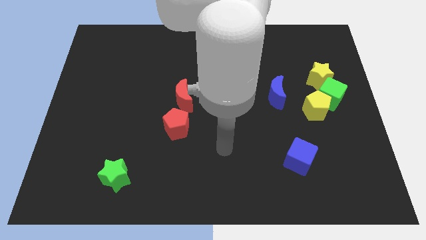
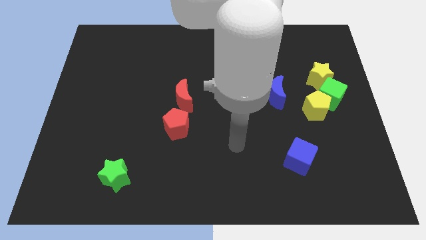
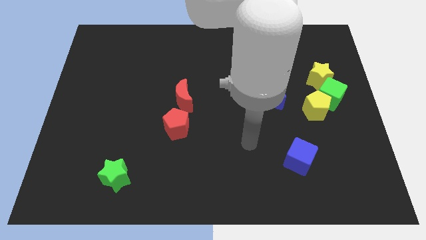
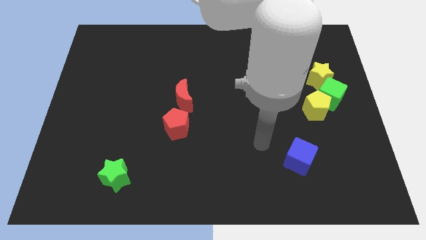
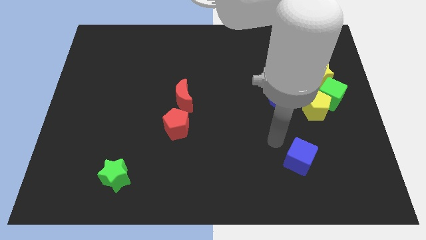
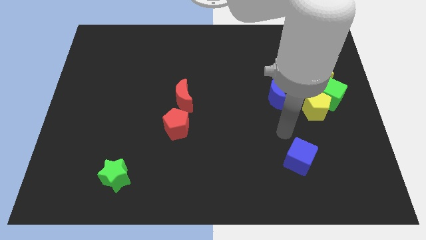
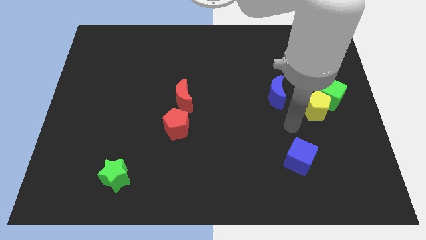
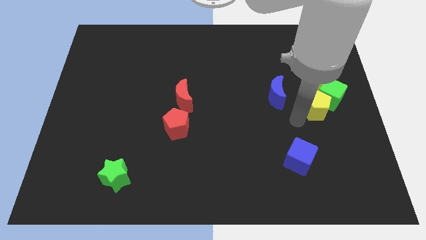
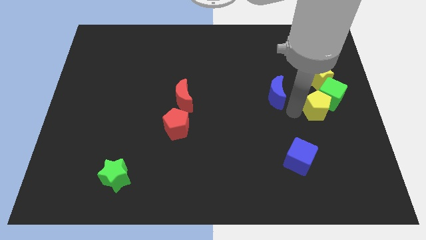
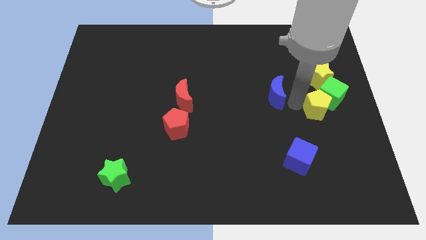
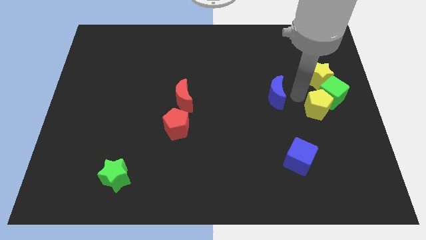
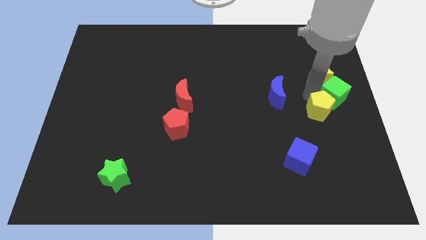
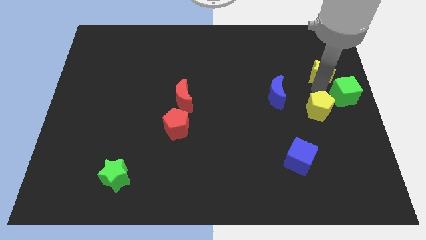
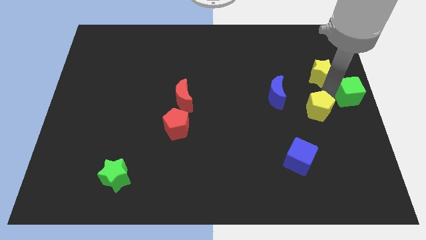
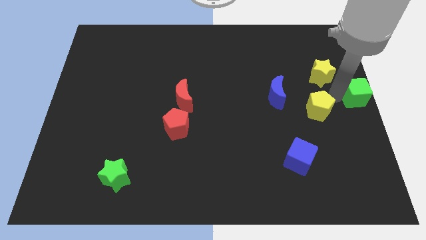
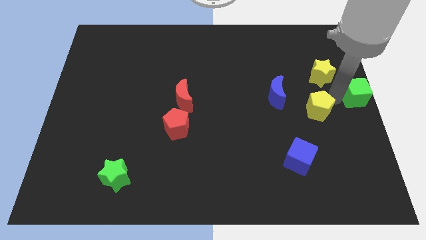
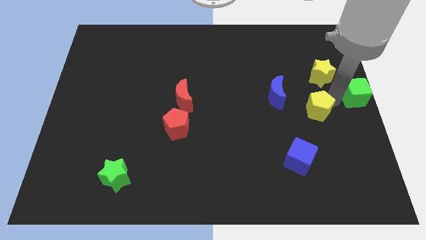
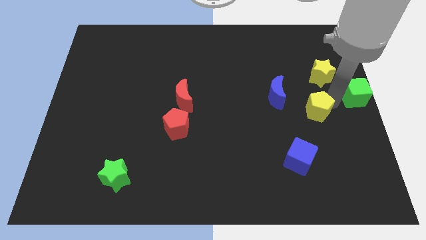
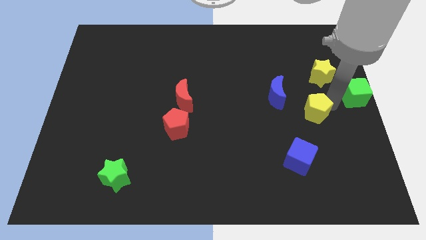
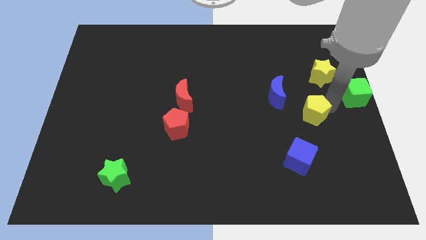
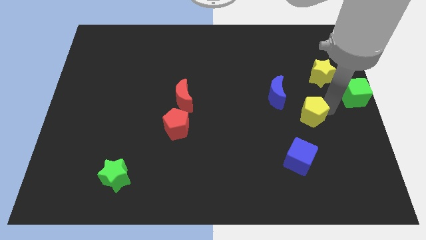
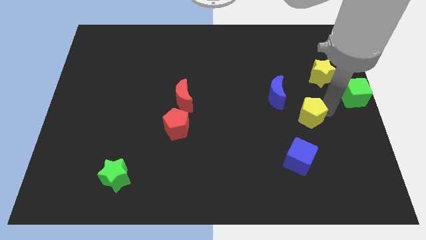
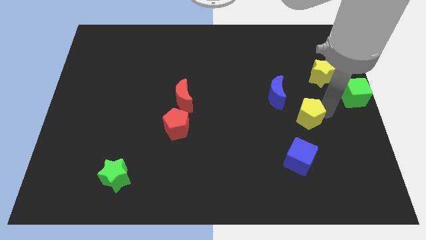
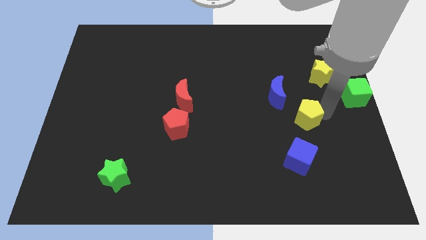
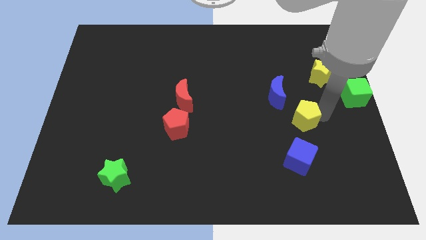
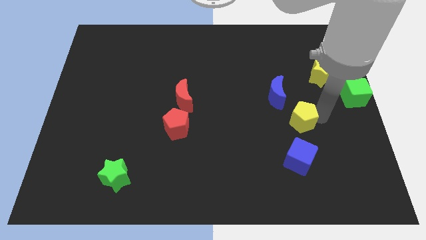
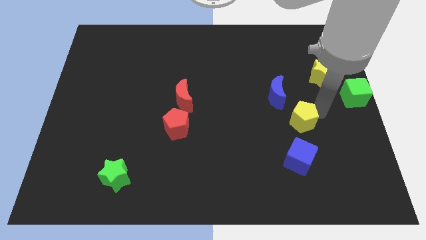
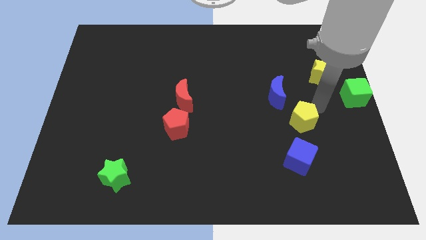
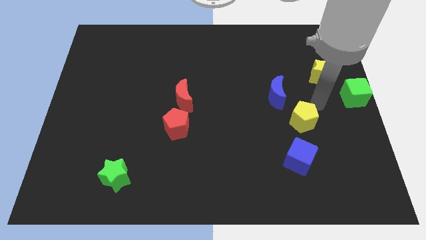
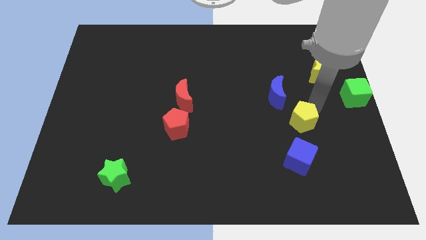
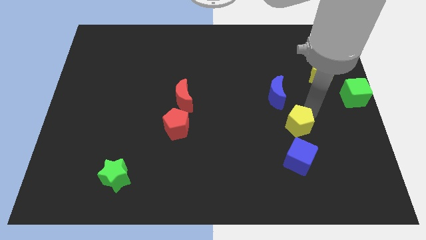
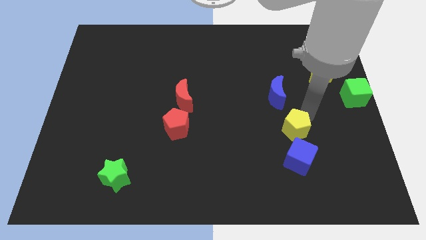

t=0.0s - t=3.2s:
slightly move the yellow pentagon down and then to the left

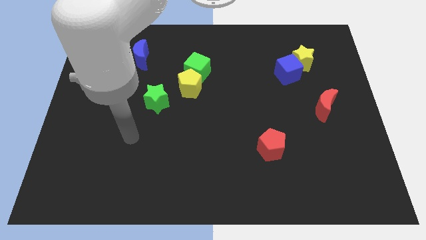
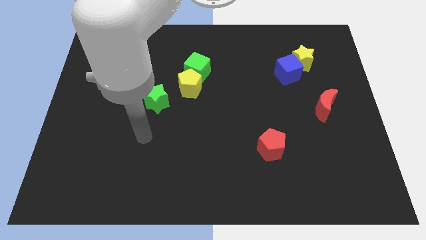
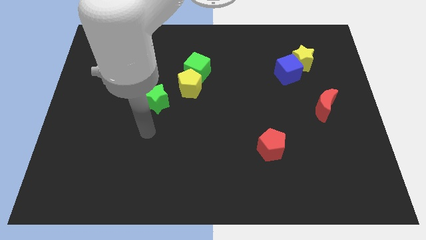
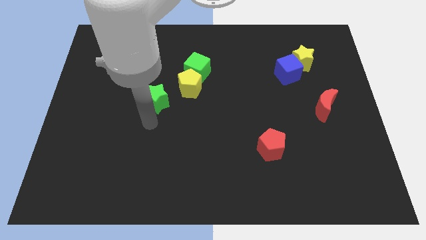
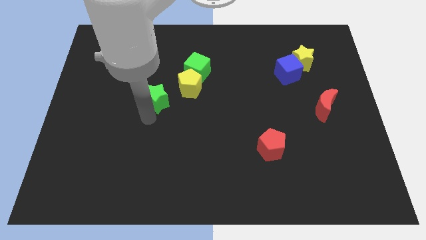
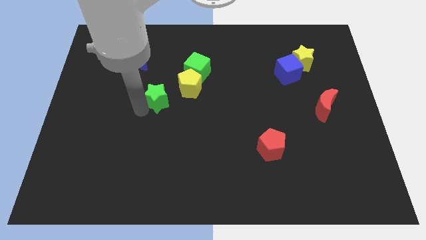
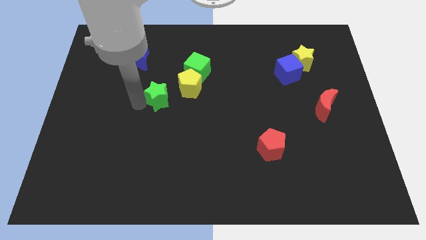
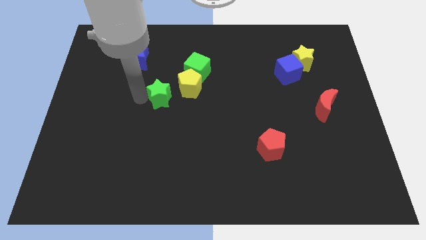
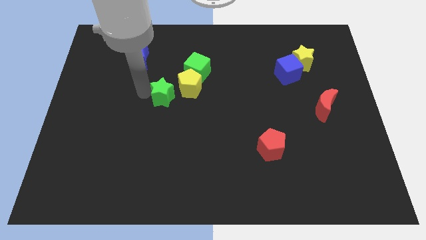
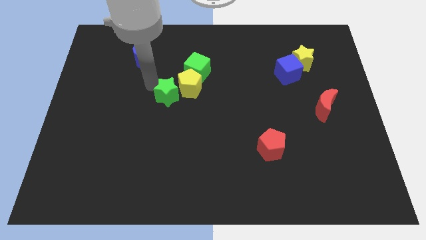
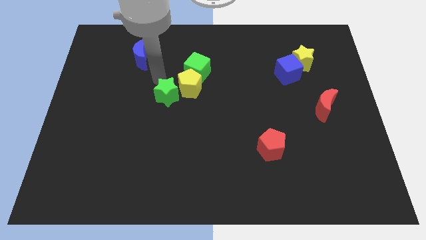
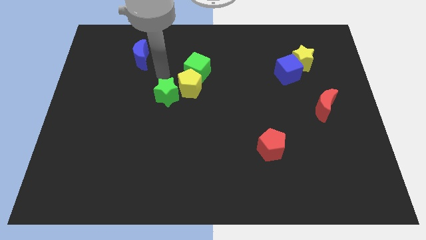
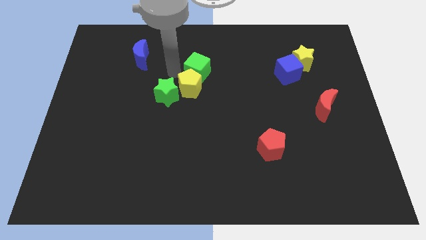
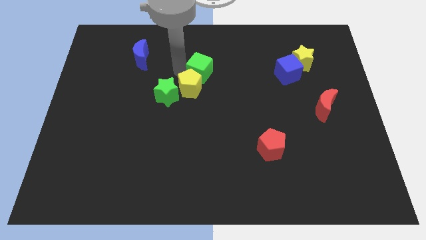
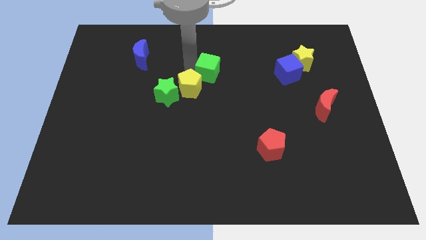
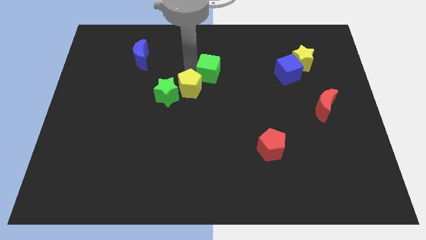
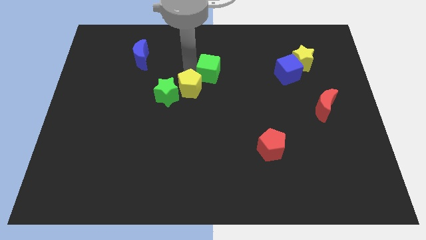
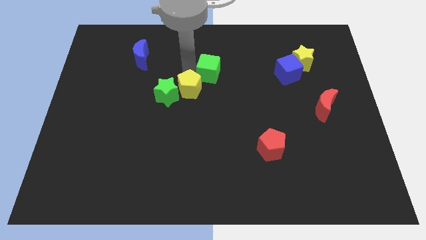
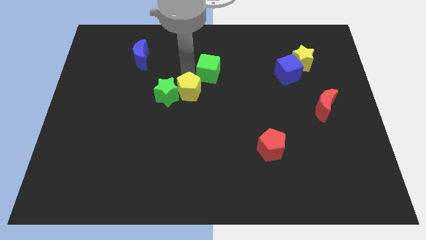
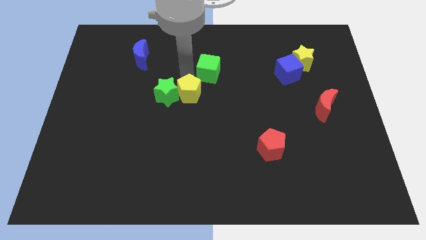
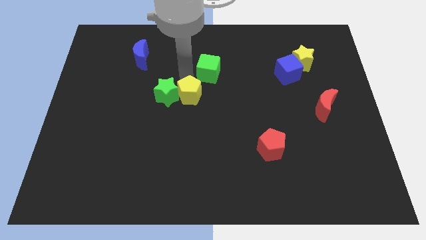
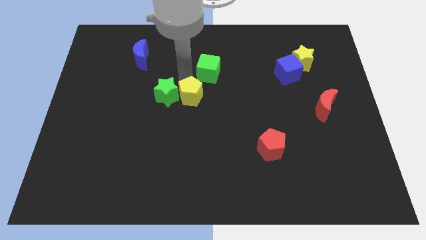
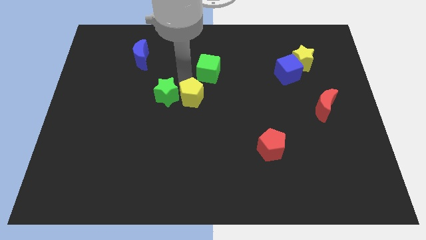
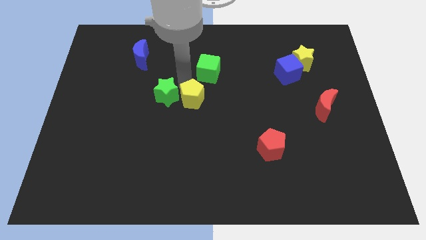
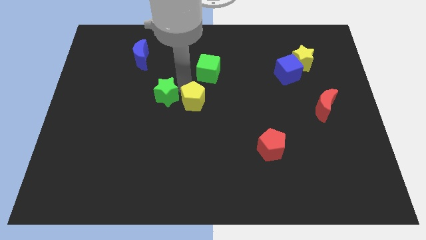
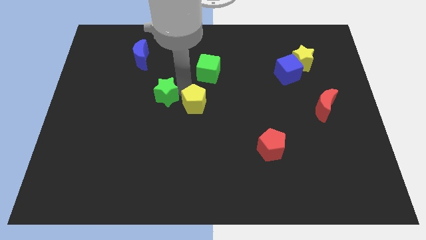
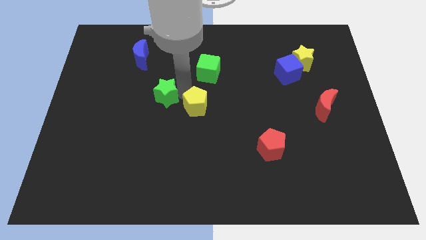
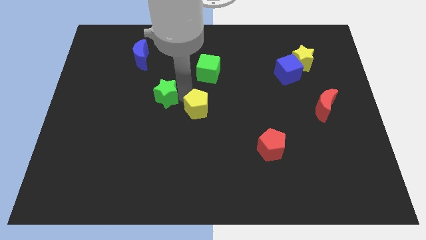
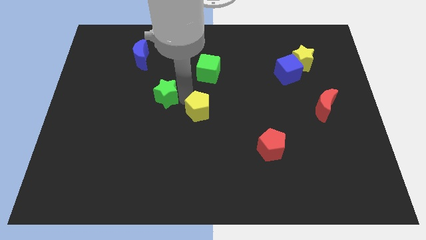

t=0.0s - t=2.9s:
slightly slide the yellow pentagon down

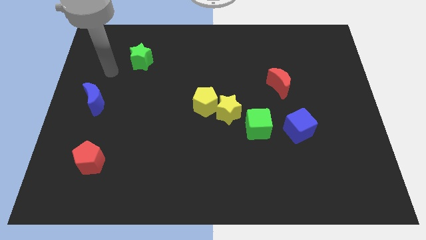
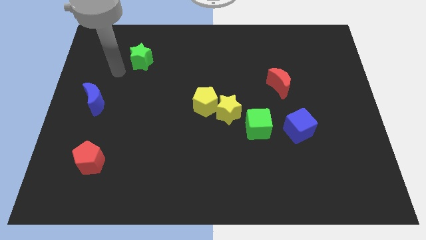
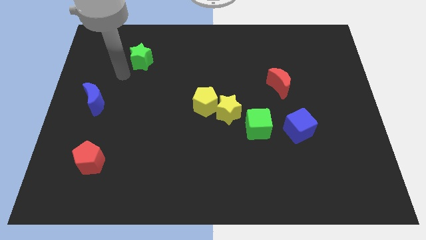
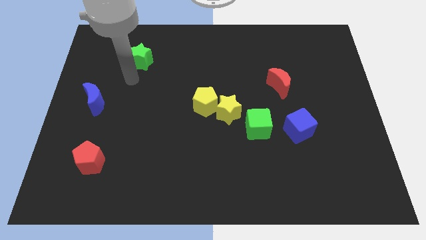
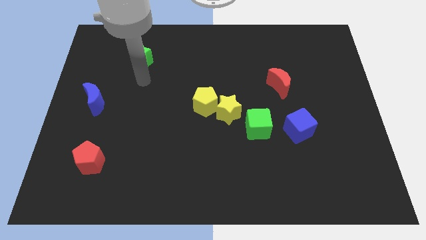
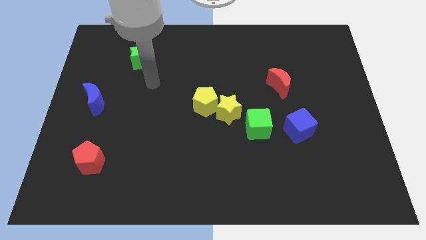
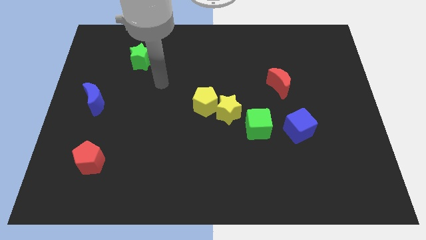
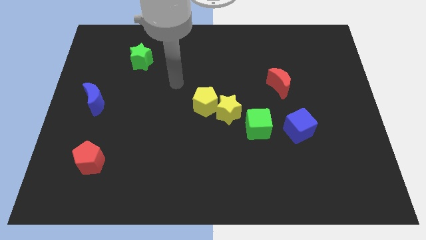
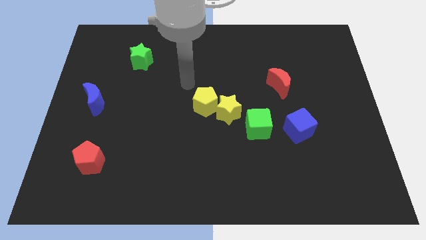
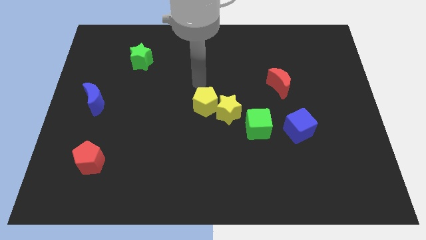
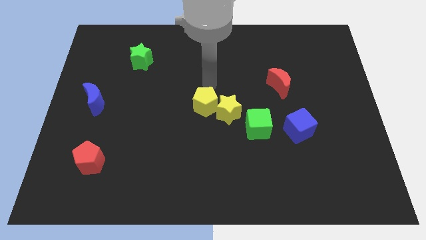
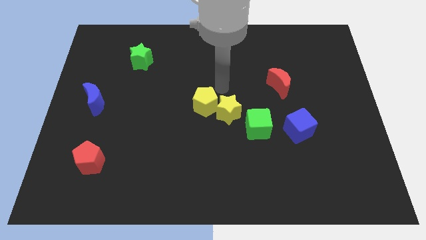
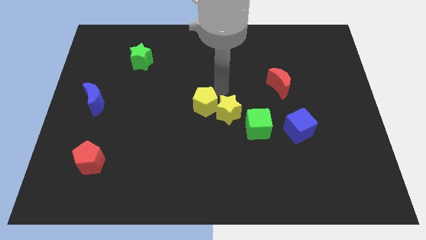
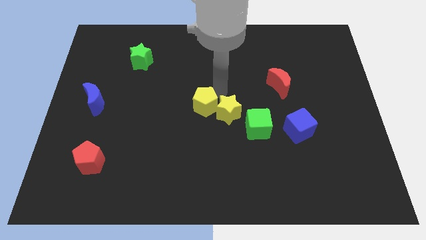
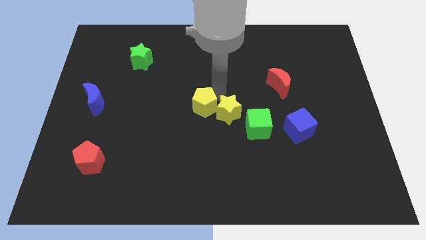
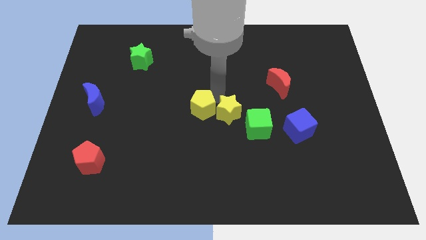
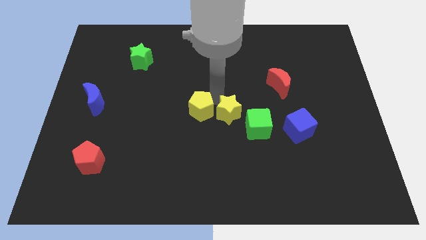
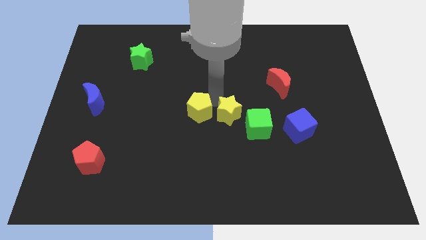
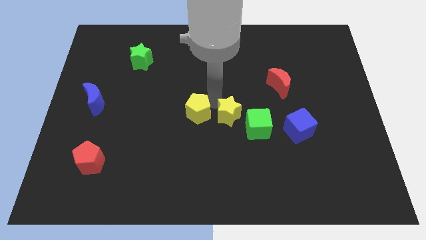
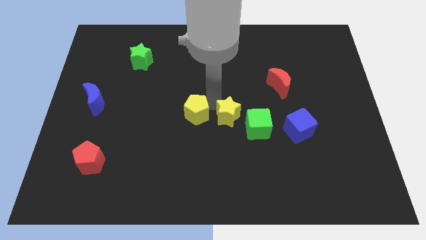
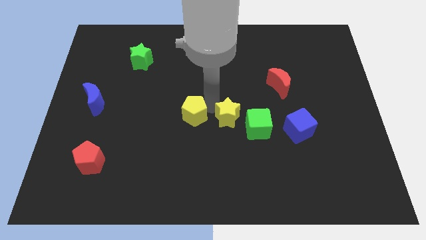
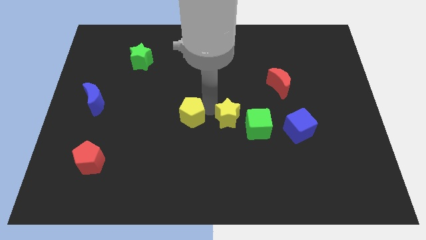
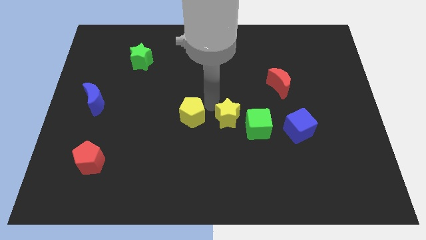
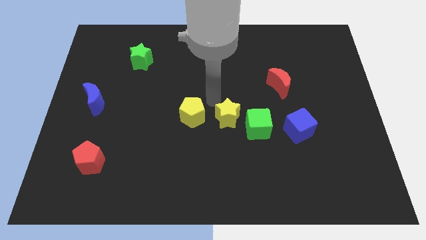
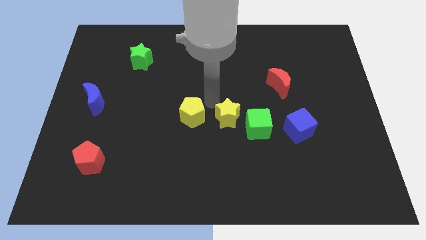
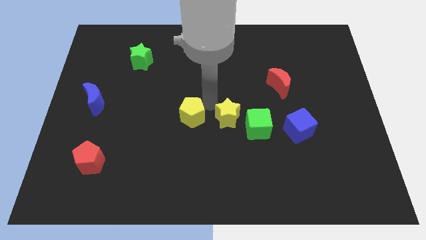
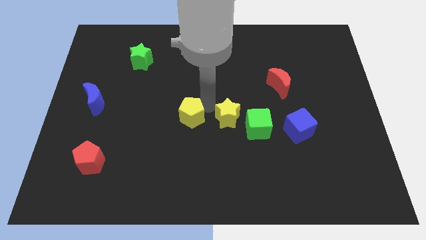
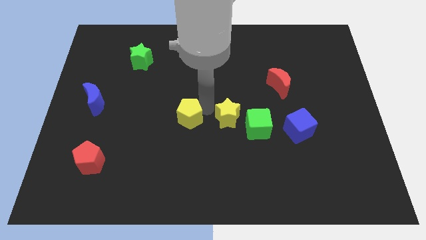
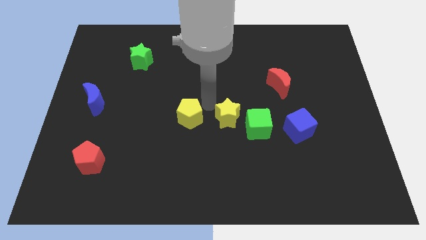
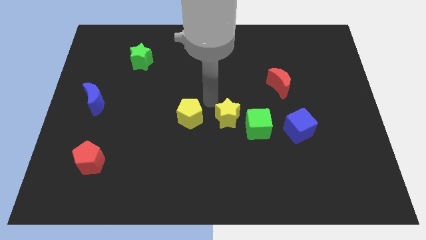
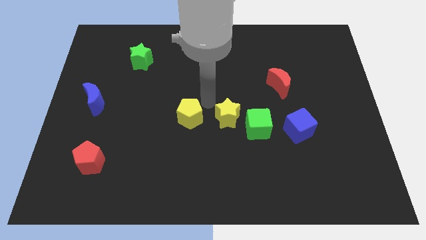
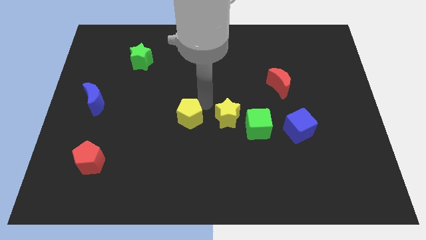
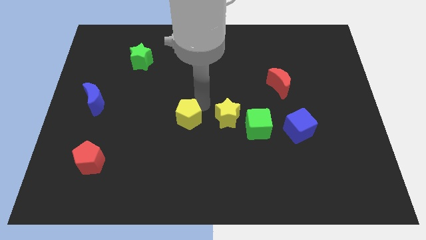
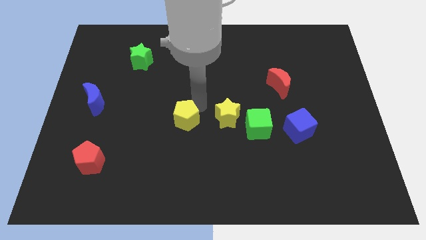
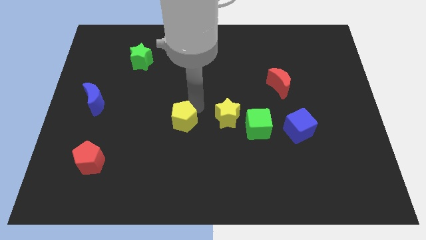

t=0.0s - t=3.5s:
move the yellow pentagon down and then left a bit
